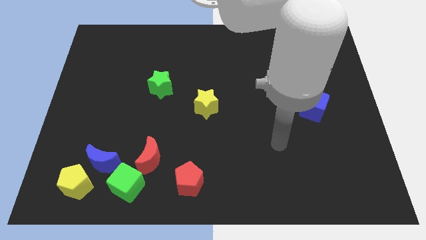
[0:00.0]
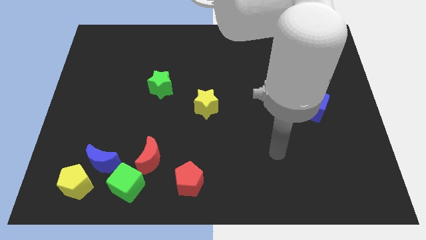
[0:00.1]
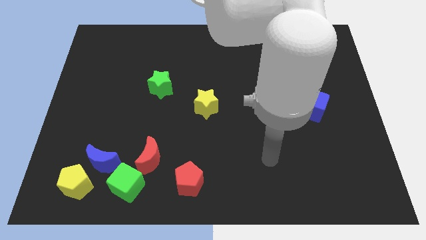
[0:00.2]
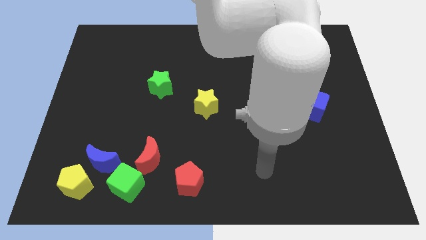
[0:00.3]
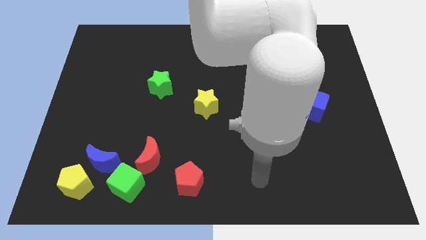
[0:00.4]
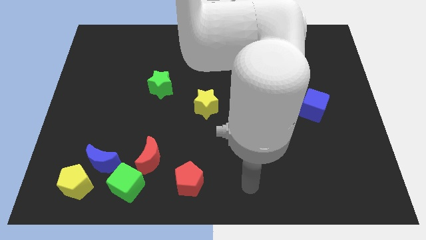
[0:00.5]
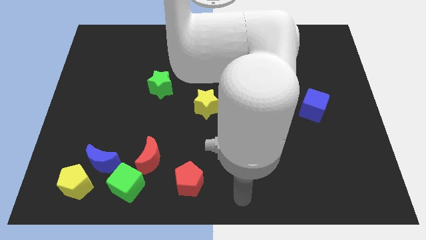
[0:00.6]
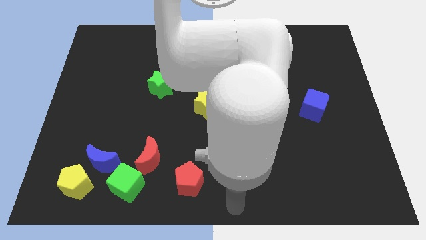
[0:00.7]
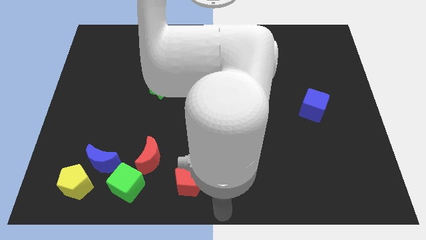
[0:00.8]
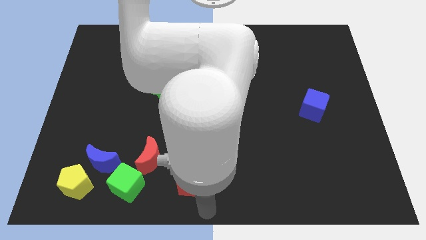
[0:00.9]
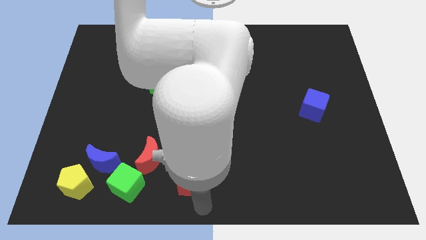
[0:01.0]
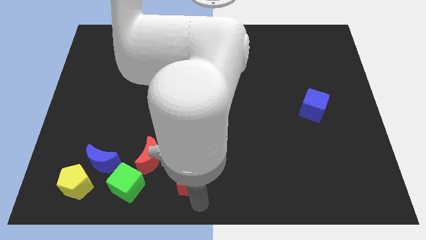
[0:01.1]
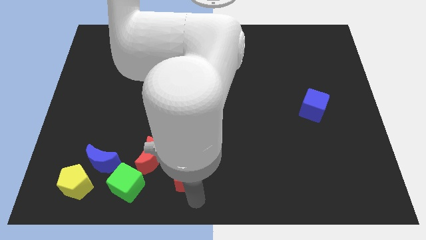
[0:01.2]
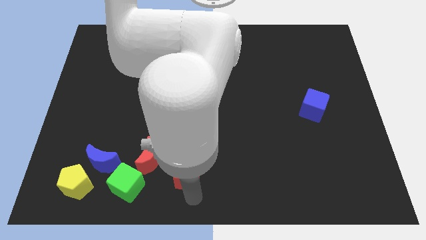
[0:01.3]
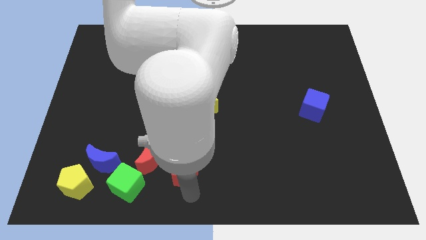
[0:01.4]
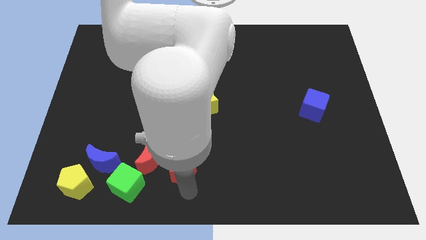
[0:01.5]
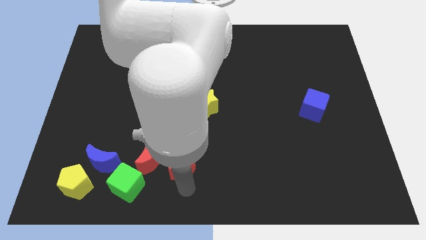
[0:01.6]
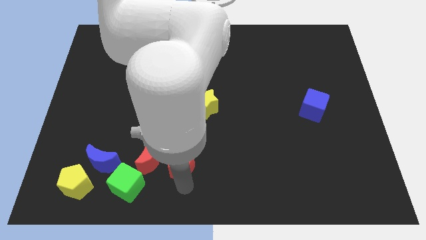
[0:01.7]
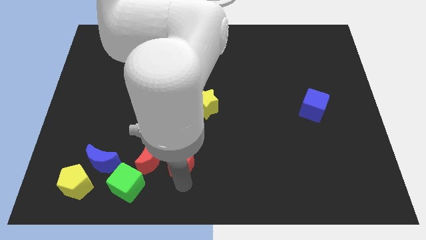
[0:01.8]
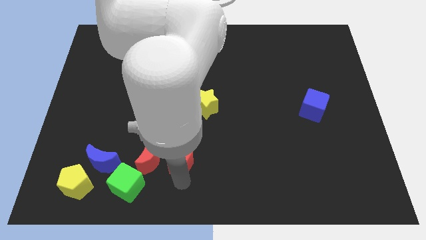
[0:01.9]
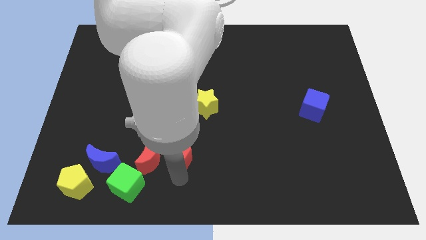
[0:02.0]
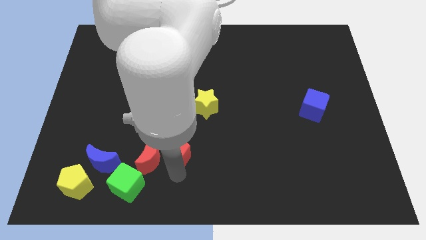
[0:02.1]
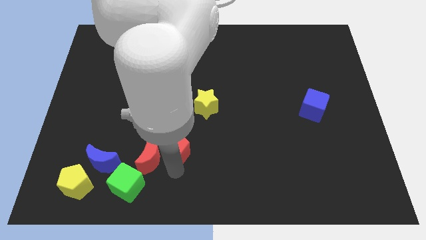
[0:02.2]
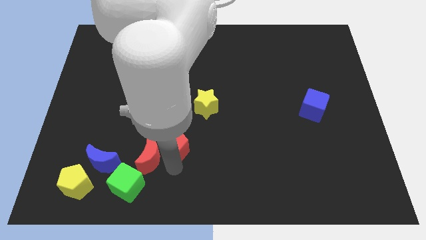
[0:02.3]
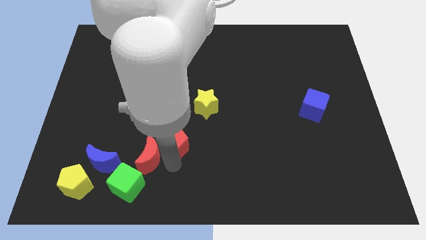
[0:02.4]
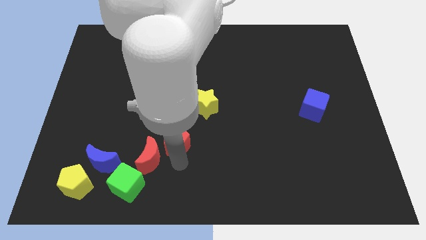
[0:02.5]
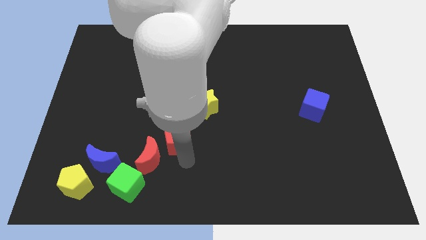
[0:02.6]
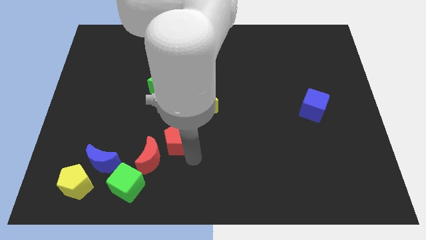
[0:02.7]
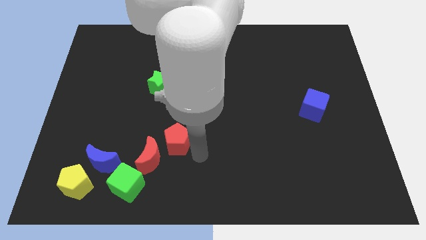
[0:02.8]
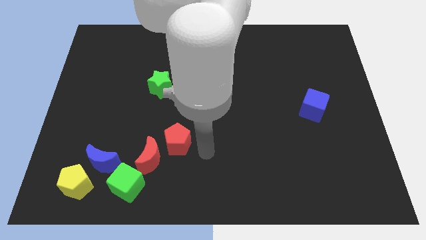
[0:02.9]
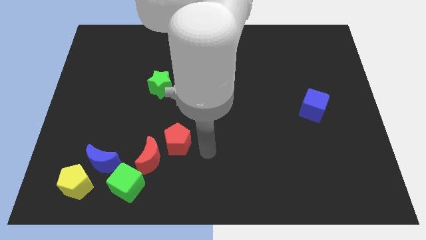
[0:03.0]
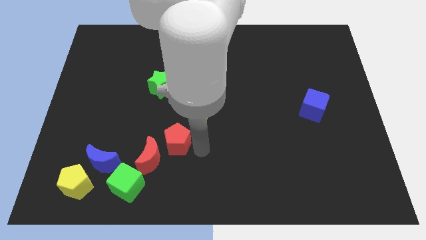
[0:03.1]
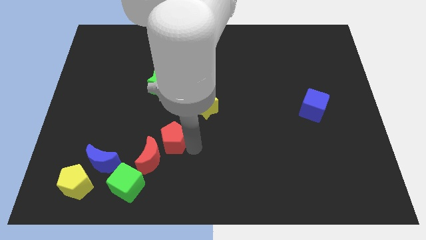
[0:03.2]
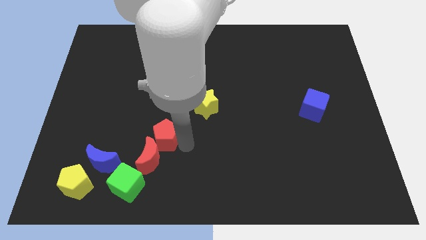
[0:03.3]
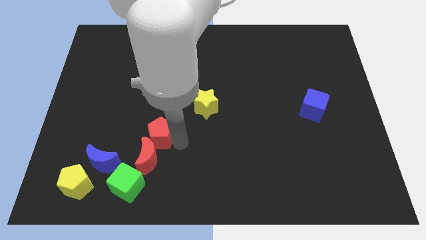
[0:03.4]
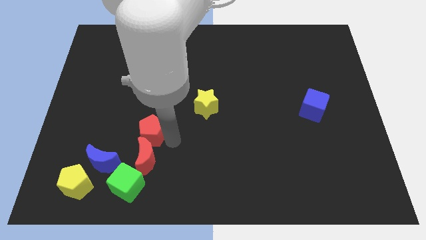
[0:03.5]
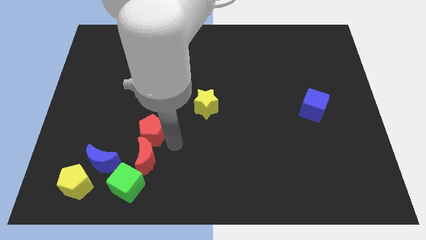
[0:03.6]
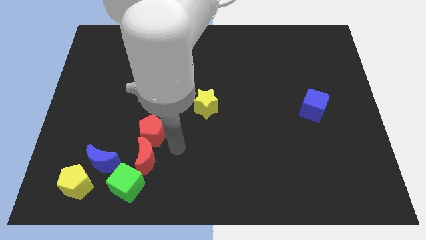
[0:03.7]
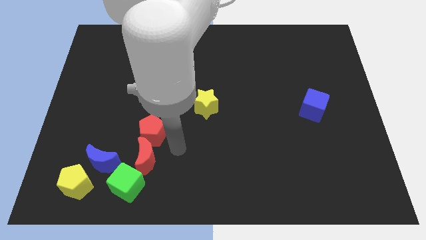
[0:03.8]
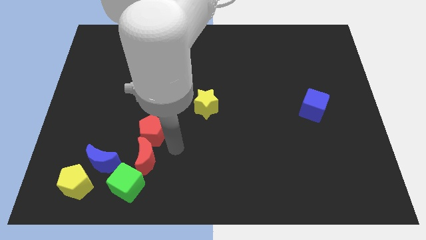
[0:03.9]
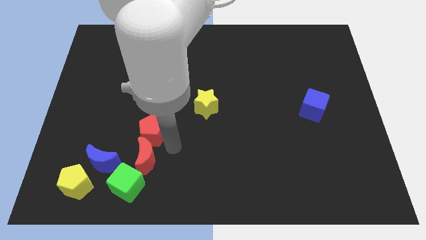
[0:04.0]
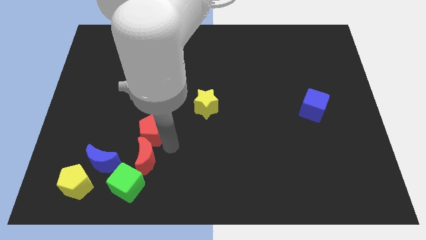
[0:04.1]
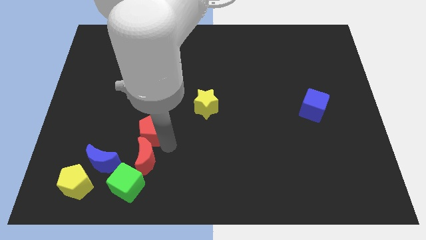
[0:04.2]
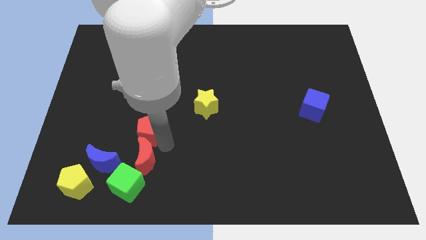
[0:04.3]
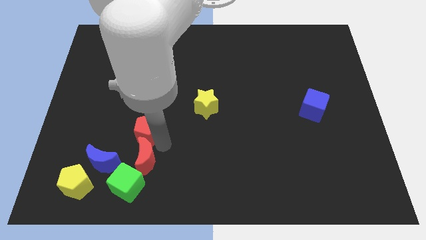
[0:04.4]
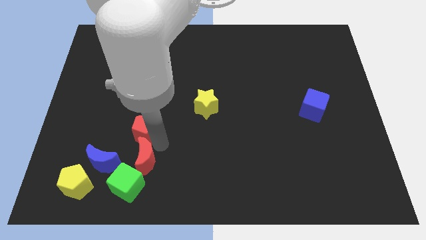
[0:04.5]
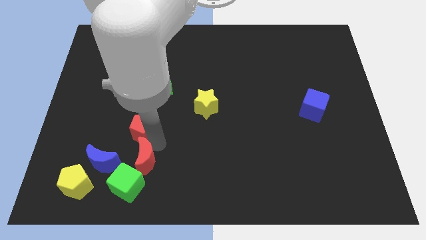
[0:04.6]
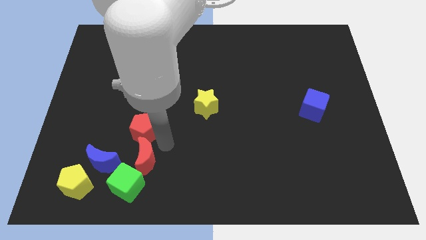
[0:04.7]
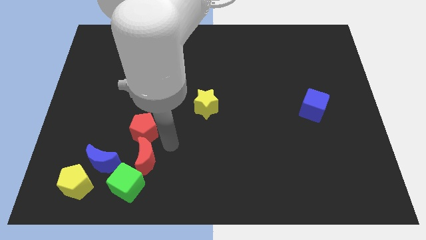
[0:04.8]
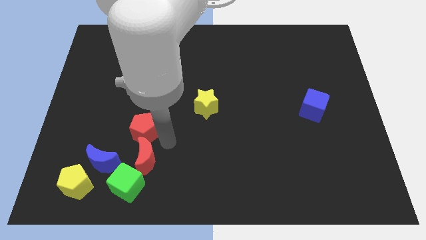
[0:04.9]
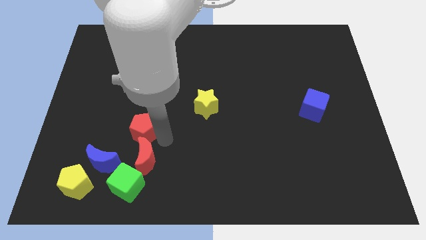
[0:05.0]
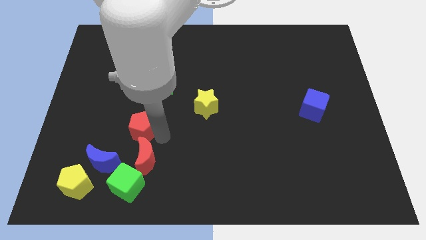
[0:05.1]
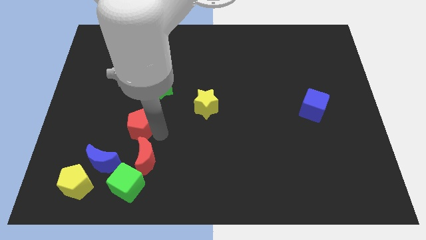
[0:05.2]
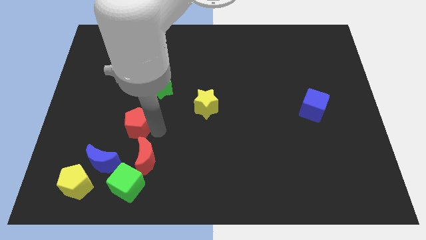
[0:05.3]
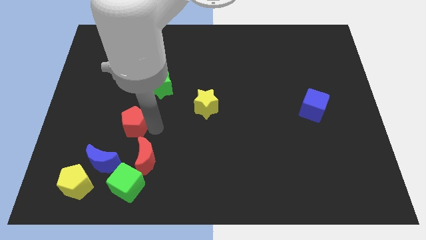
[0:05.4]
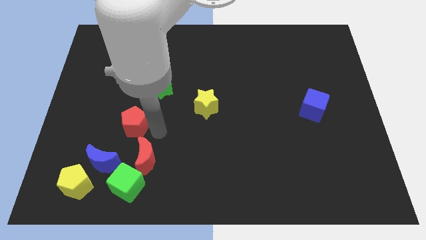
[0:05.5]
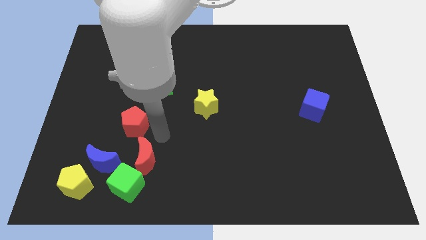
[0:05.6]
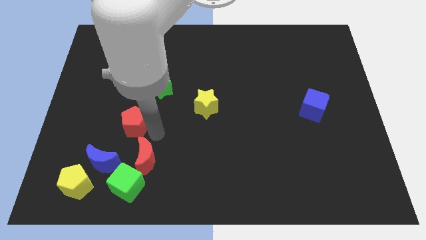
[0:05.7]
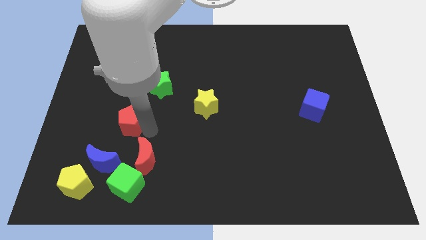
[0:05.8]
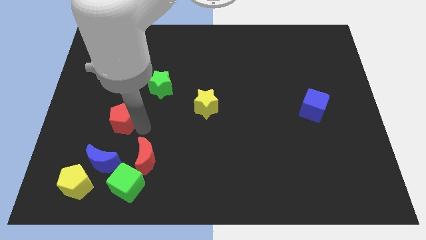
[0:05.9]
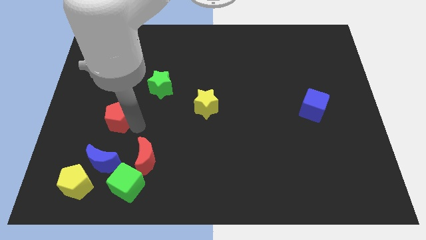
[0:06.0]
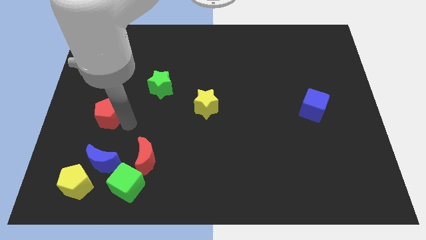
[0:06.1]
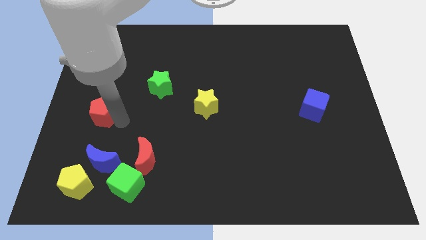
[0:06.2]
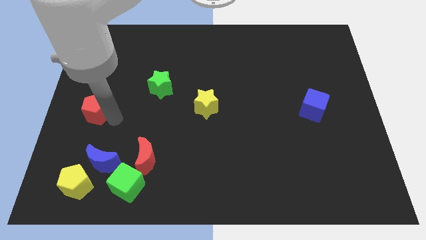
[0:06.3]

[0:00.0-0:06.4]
slide the red pentagon to the left side
